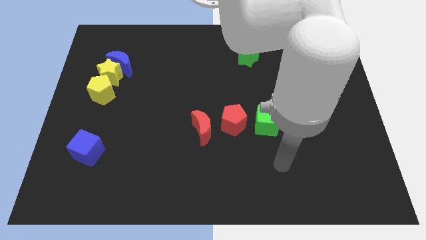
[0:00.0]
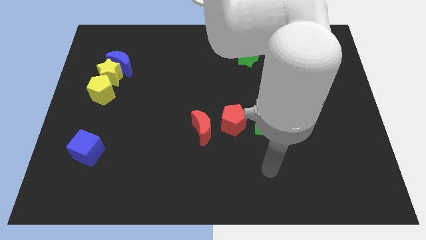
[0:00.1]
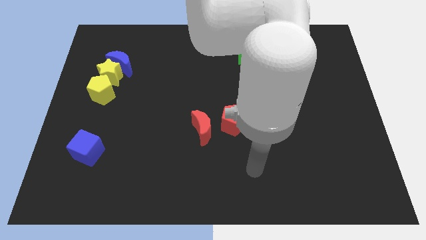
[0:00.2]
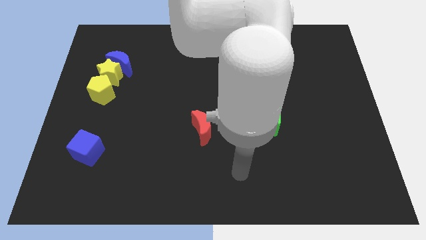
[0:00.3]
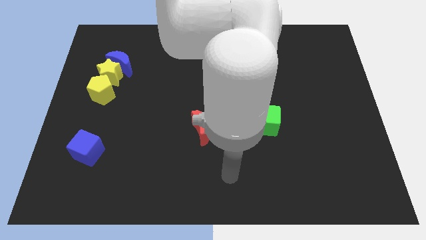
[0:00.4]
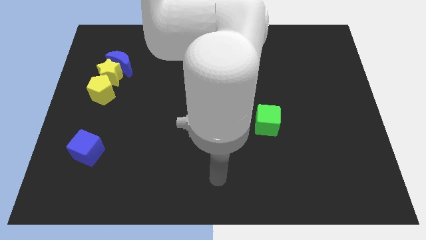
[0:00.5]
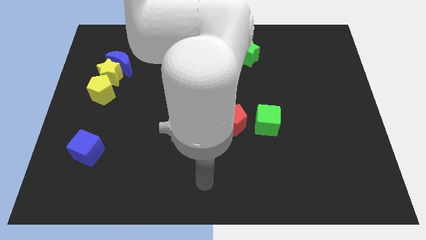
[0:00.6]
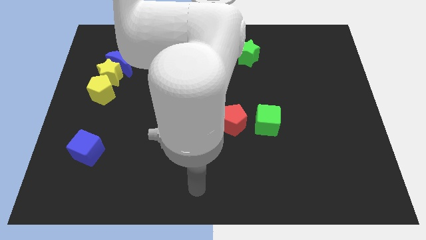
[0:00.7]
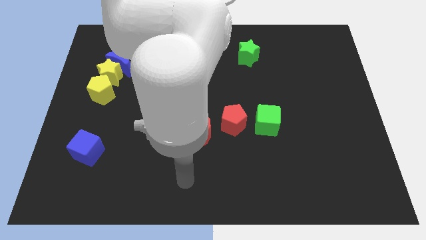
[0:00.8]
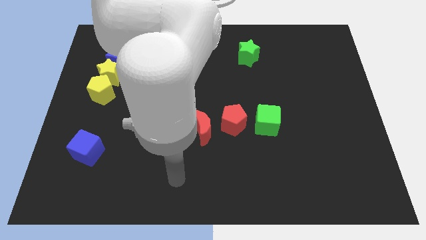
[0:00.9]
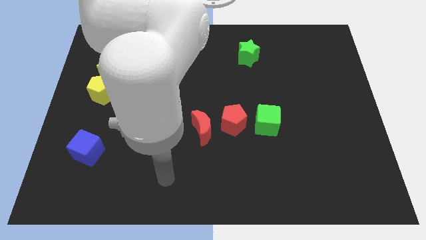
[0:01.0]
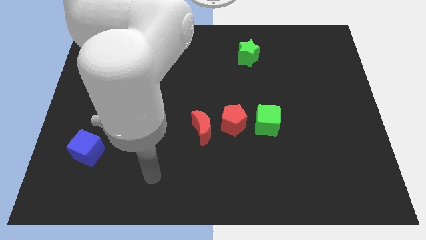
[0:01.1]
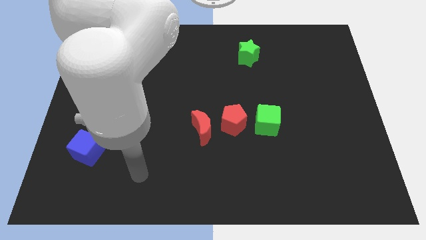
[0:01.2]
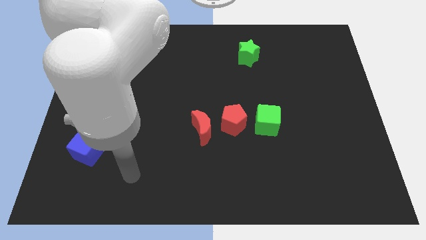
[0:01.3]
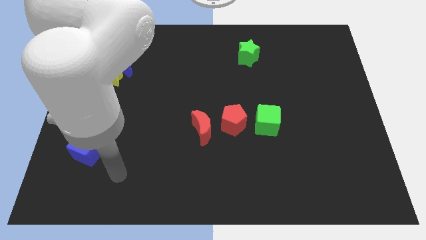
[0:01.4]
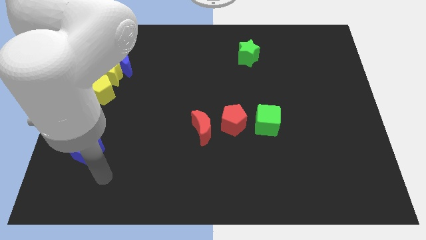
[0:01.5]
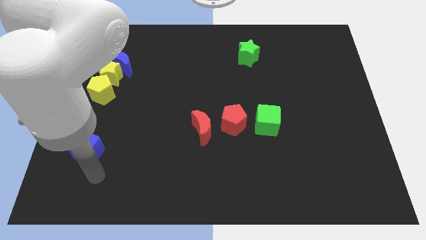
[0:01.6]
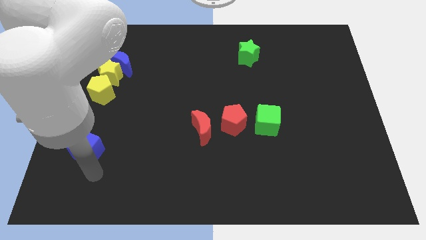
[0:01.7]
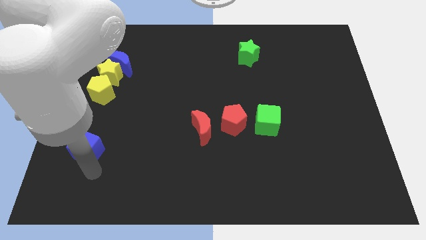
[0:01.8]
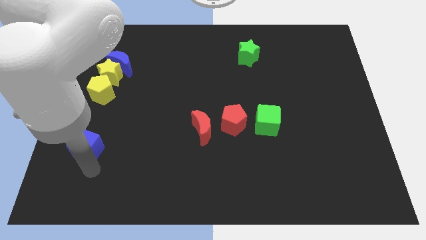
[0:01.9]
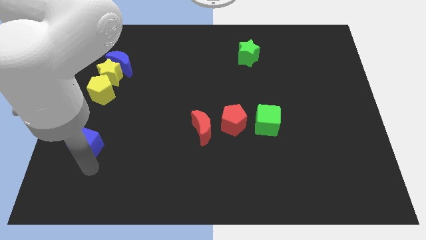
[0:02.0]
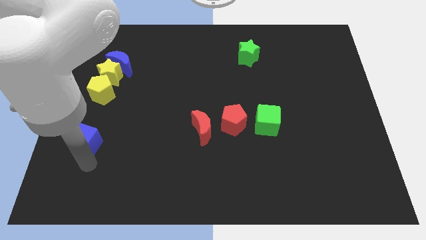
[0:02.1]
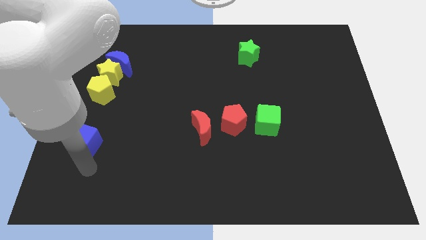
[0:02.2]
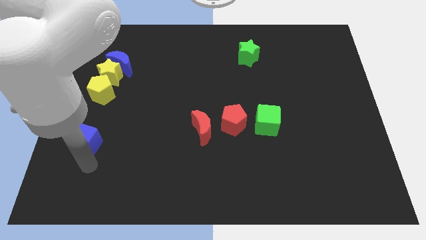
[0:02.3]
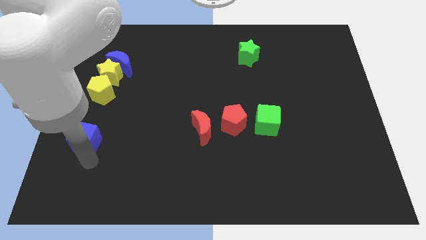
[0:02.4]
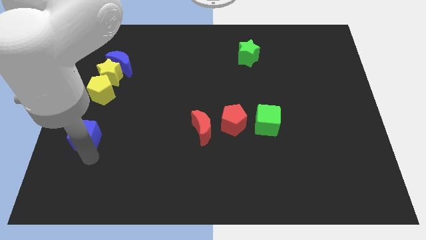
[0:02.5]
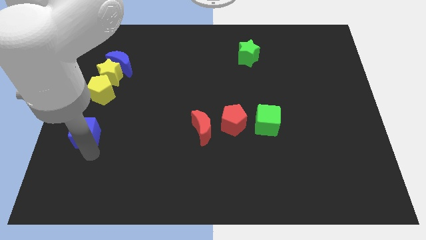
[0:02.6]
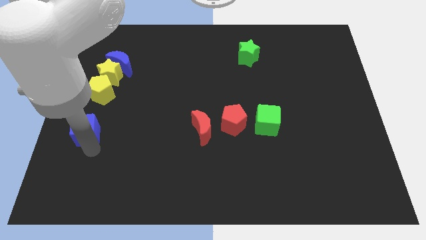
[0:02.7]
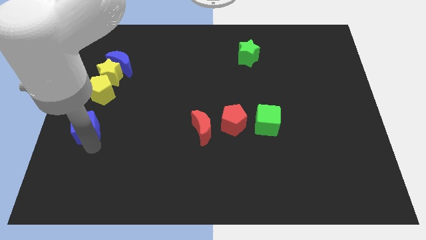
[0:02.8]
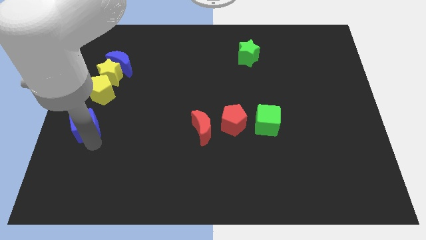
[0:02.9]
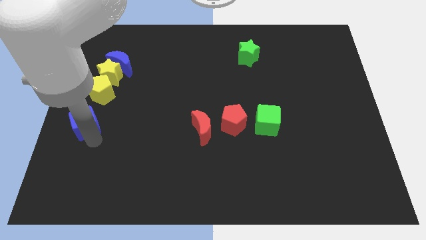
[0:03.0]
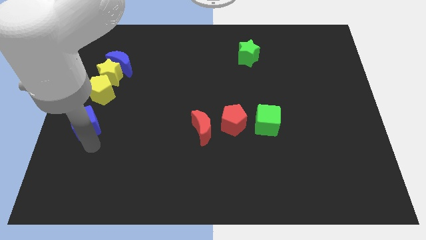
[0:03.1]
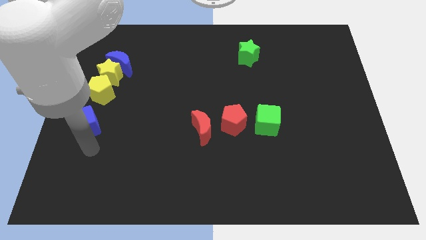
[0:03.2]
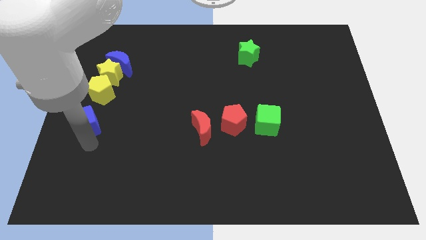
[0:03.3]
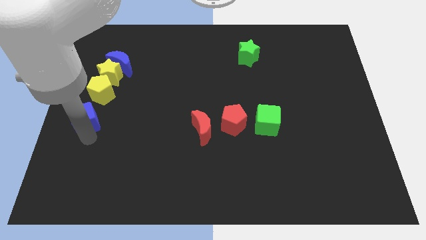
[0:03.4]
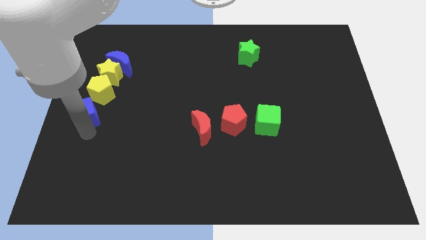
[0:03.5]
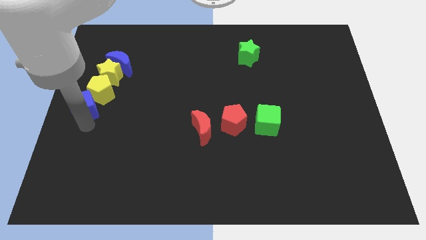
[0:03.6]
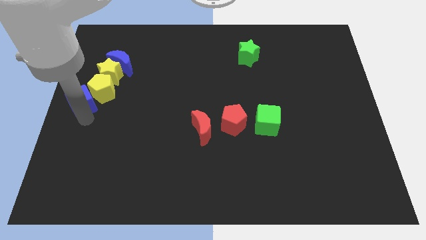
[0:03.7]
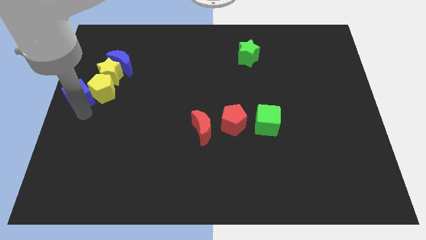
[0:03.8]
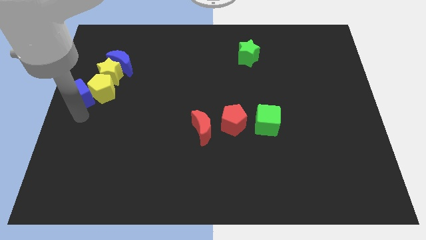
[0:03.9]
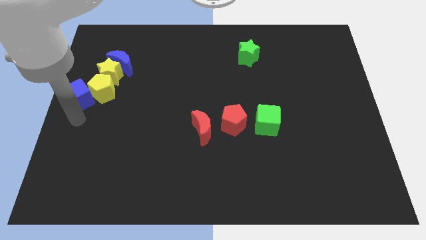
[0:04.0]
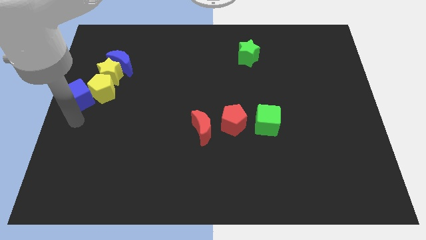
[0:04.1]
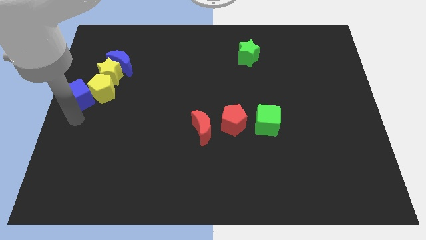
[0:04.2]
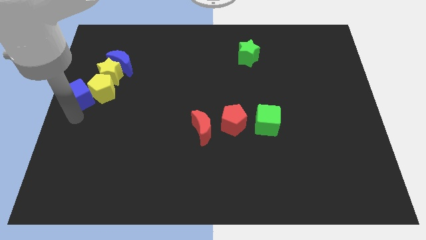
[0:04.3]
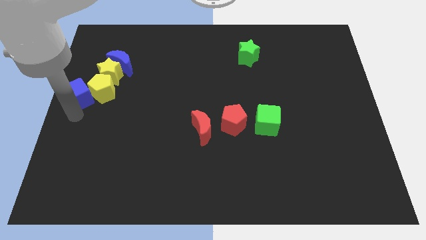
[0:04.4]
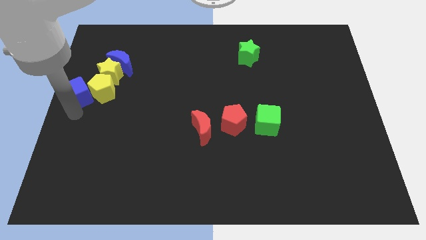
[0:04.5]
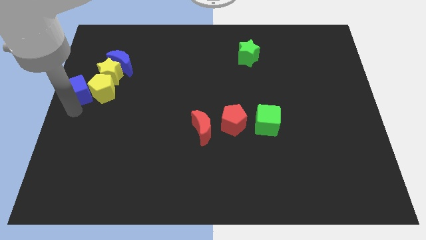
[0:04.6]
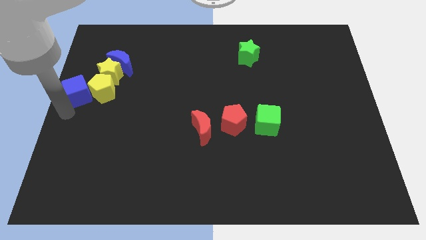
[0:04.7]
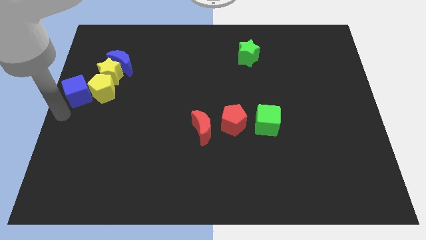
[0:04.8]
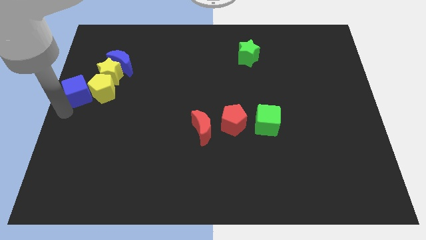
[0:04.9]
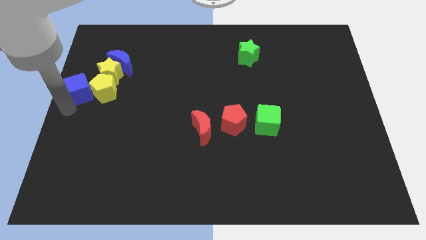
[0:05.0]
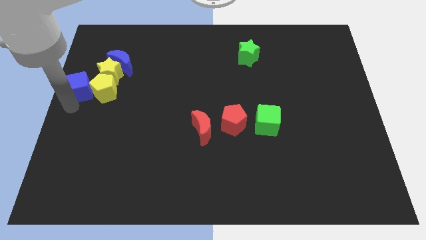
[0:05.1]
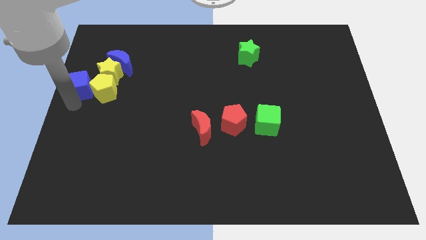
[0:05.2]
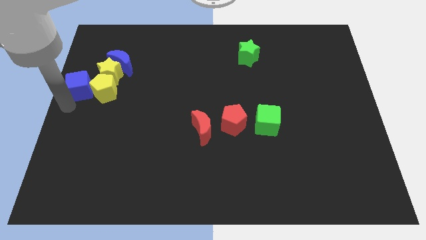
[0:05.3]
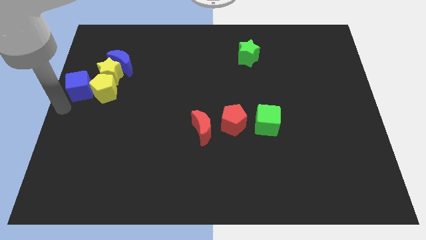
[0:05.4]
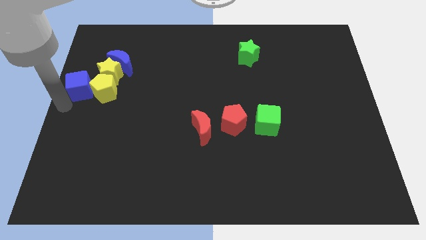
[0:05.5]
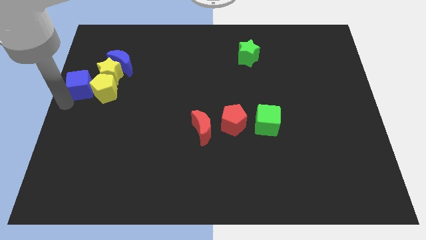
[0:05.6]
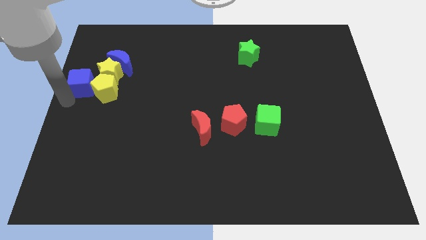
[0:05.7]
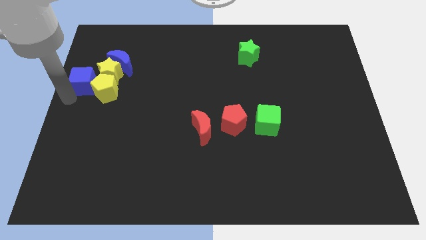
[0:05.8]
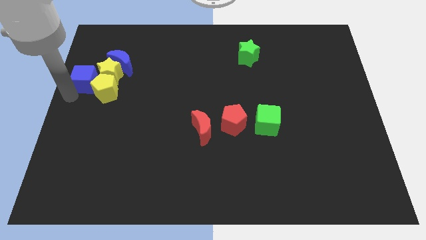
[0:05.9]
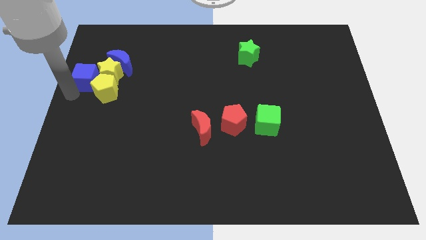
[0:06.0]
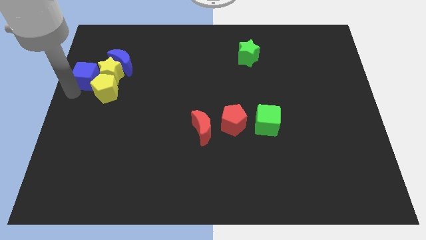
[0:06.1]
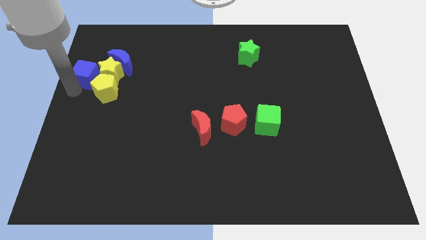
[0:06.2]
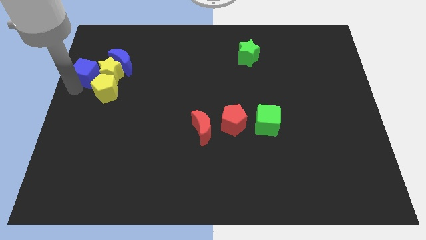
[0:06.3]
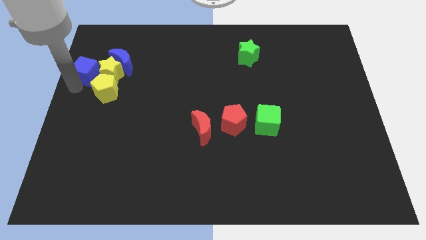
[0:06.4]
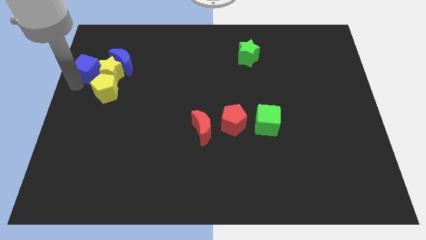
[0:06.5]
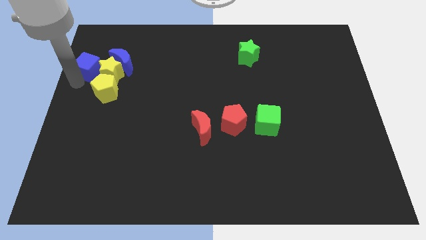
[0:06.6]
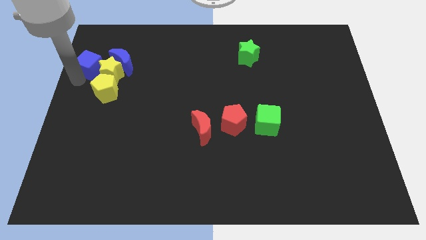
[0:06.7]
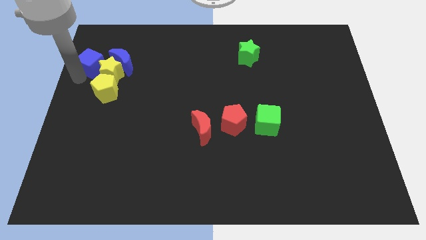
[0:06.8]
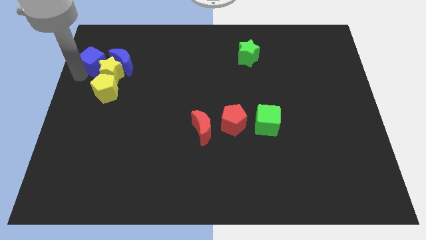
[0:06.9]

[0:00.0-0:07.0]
move the blue cube to the top of the yellow pentagon

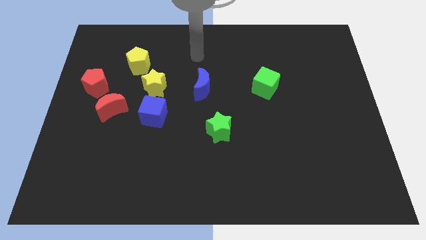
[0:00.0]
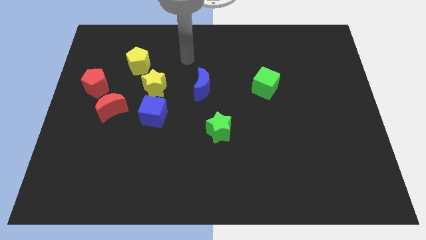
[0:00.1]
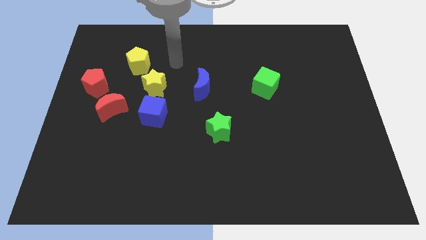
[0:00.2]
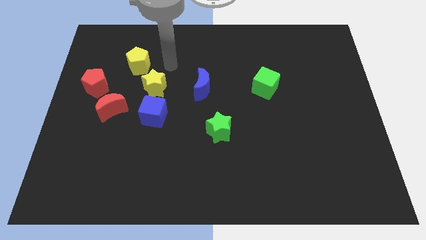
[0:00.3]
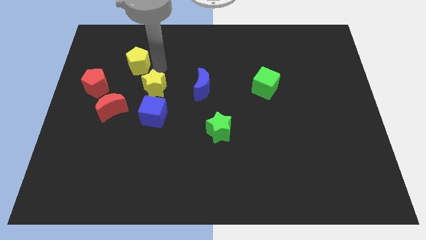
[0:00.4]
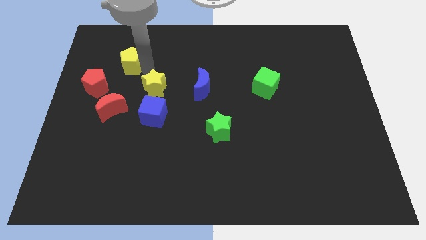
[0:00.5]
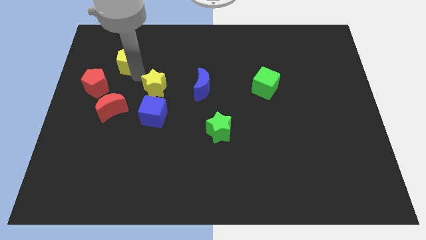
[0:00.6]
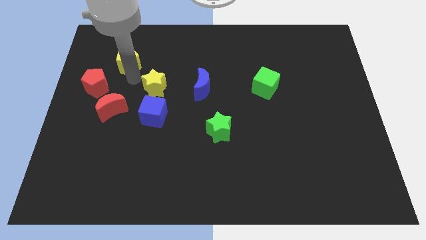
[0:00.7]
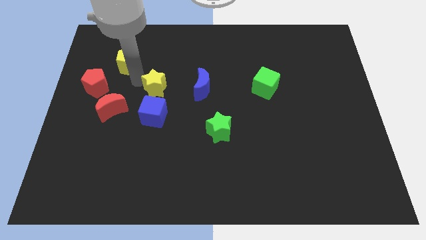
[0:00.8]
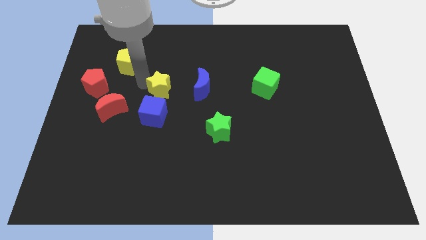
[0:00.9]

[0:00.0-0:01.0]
slide the yellow star diagonally up and to the right of the blue cube

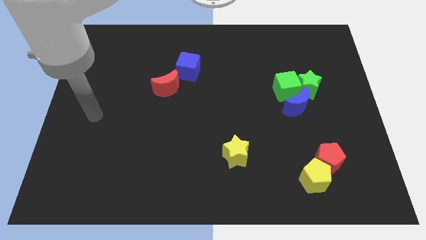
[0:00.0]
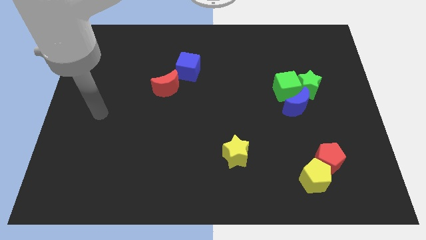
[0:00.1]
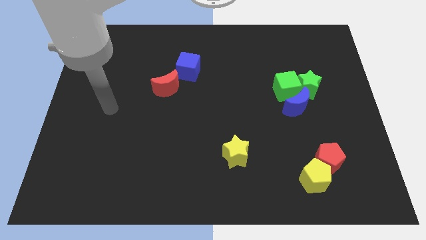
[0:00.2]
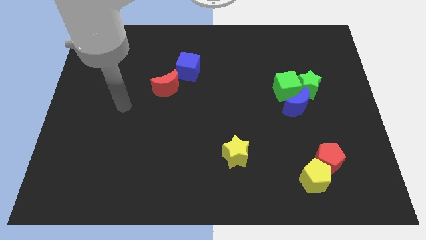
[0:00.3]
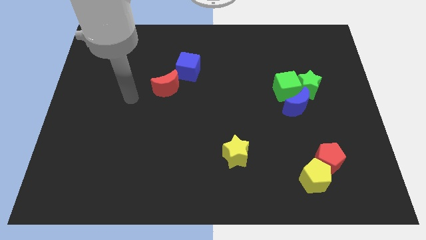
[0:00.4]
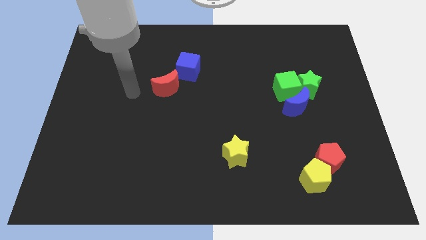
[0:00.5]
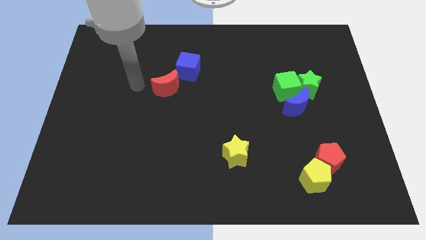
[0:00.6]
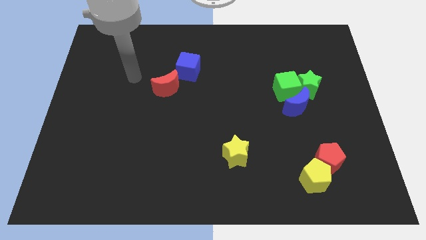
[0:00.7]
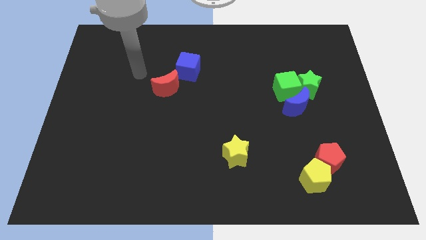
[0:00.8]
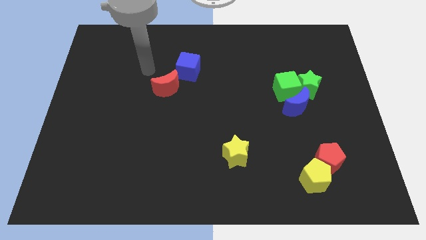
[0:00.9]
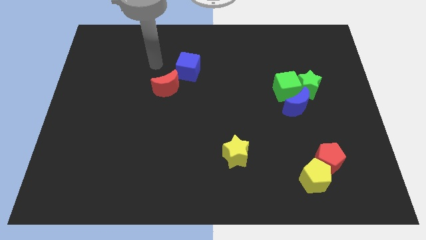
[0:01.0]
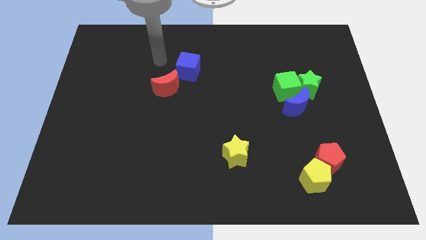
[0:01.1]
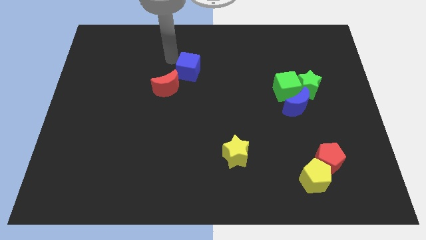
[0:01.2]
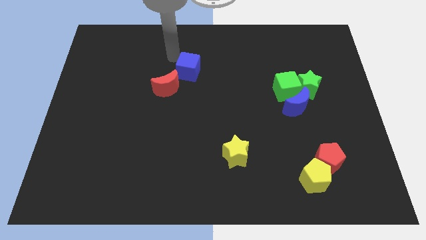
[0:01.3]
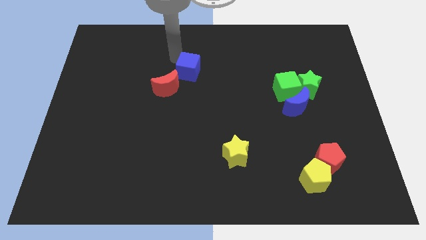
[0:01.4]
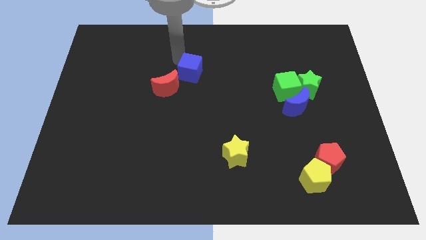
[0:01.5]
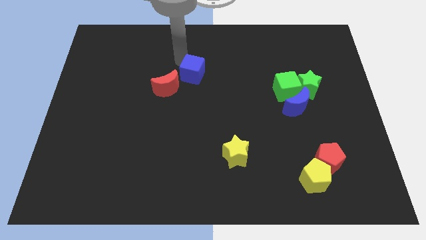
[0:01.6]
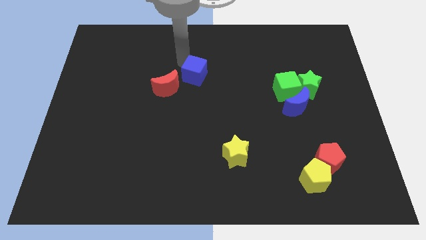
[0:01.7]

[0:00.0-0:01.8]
move the blue cube just right of the red moon
